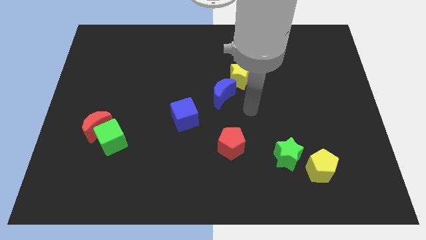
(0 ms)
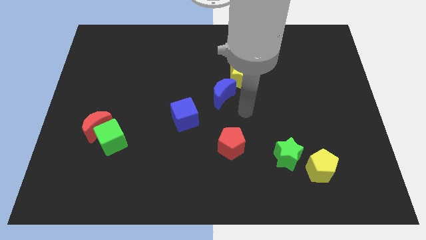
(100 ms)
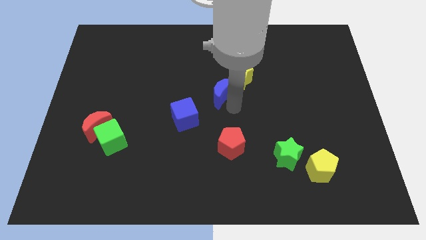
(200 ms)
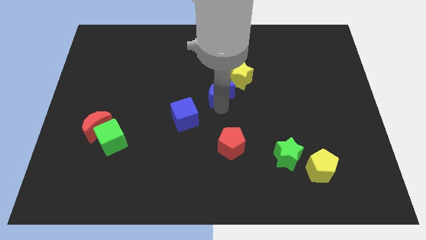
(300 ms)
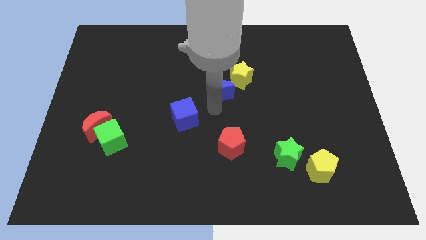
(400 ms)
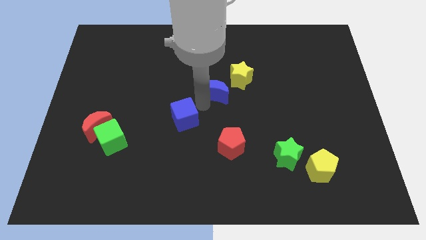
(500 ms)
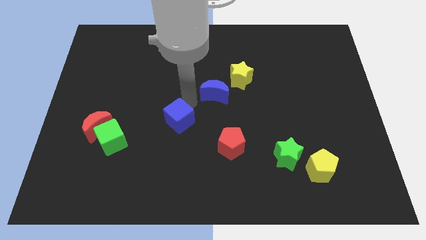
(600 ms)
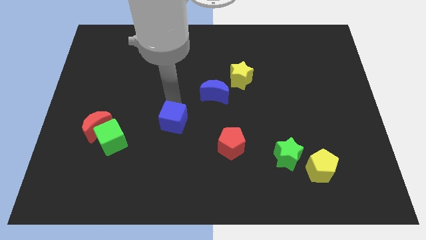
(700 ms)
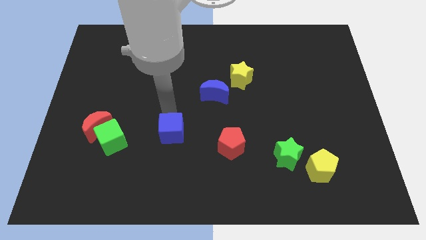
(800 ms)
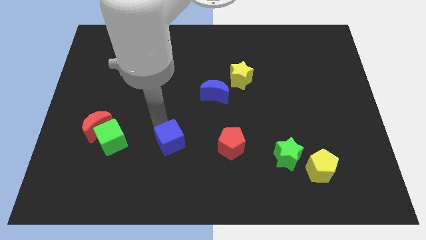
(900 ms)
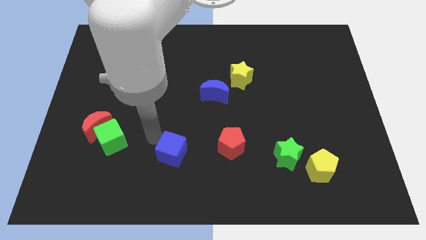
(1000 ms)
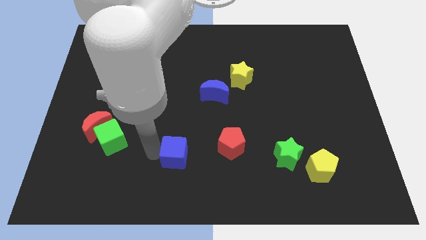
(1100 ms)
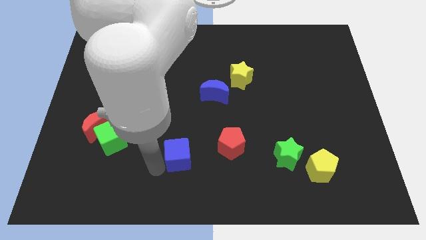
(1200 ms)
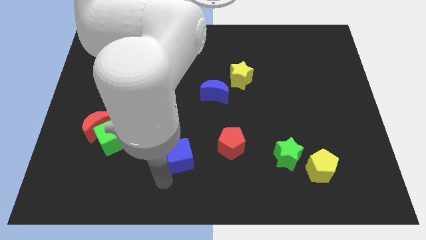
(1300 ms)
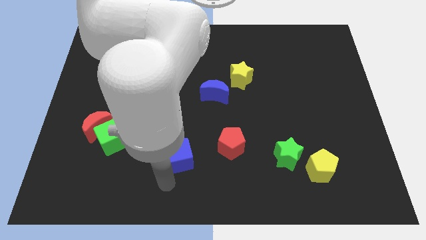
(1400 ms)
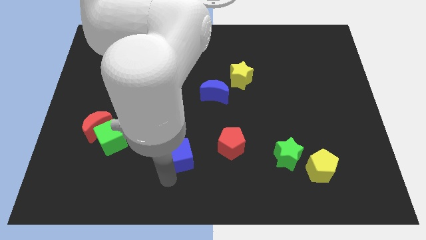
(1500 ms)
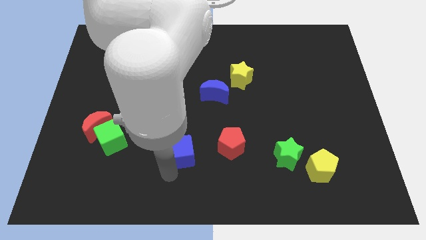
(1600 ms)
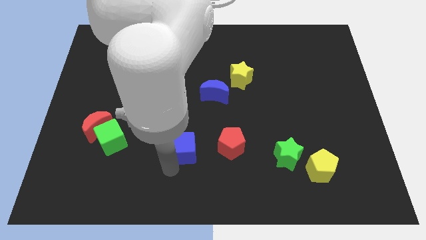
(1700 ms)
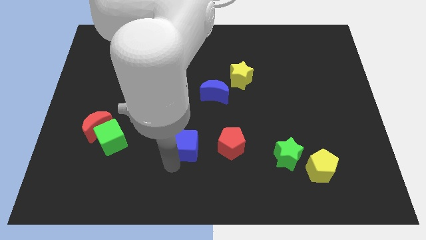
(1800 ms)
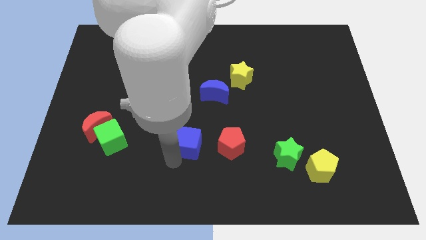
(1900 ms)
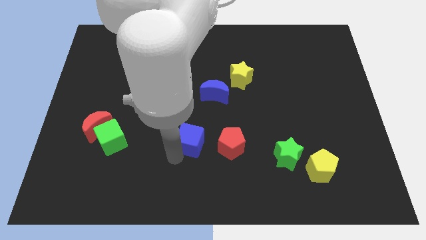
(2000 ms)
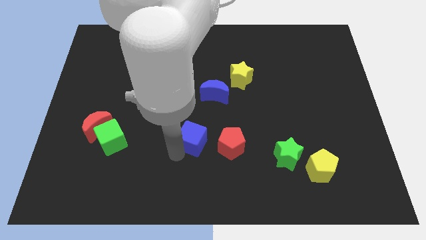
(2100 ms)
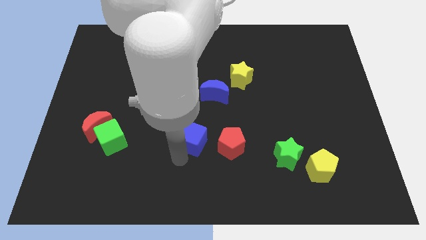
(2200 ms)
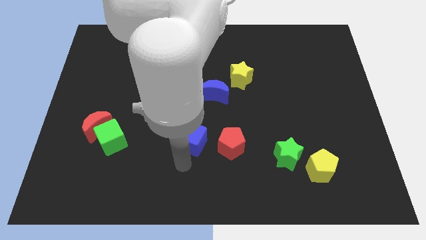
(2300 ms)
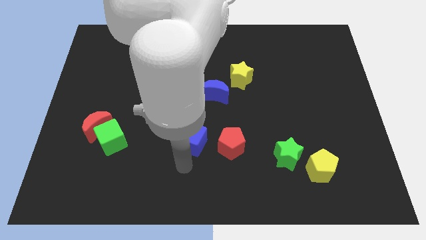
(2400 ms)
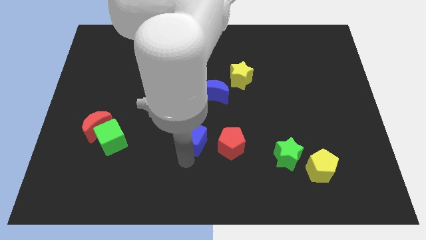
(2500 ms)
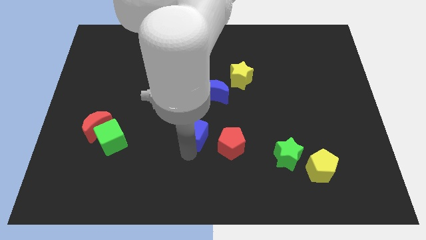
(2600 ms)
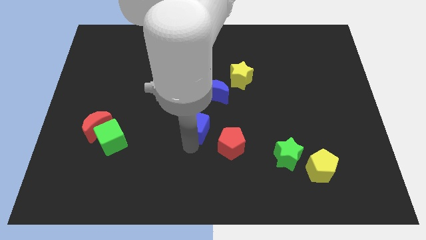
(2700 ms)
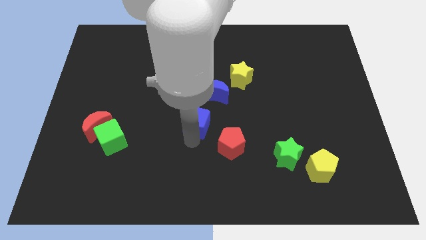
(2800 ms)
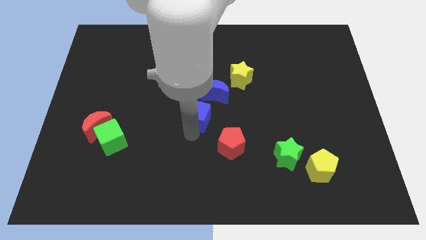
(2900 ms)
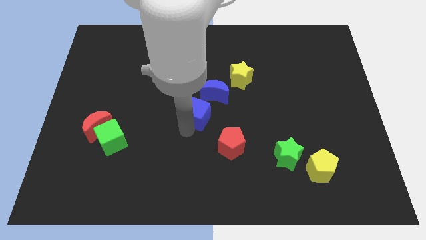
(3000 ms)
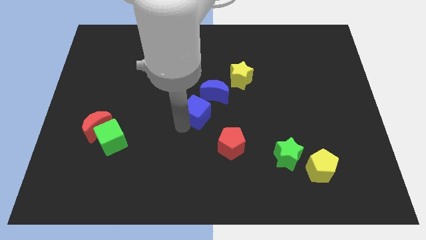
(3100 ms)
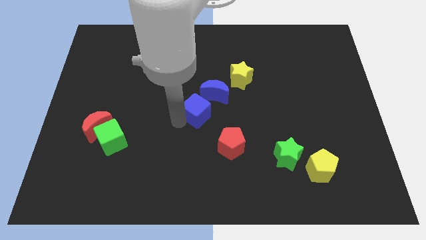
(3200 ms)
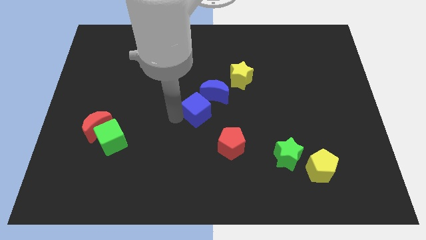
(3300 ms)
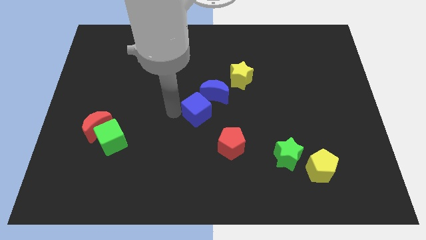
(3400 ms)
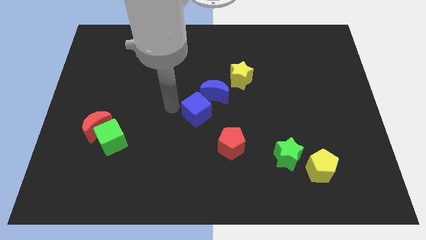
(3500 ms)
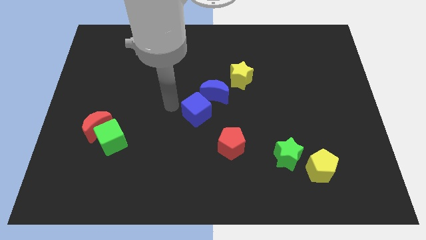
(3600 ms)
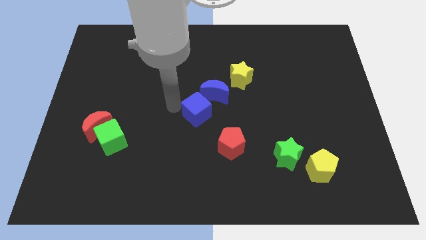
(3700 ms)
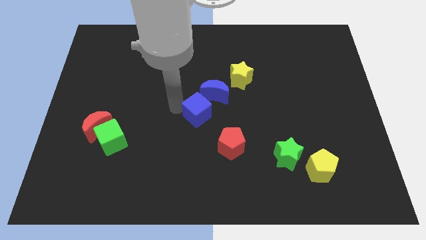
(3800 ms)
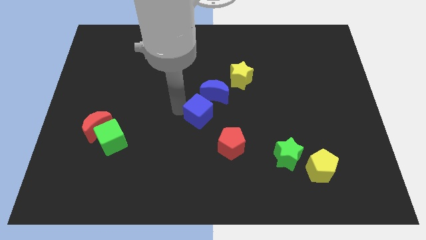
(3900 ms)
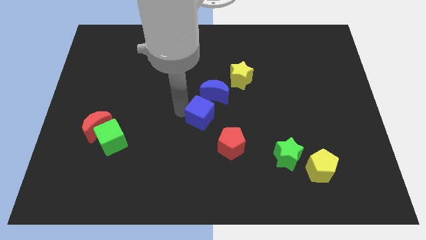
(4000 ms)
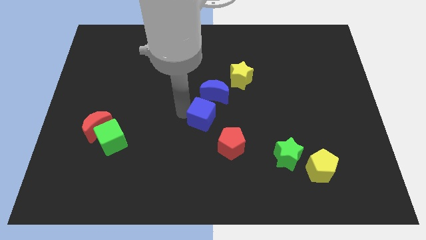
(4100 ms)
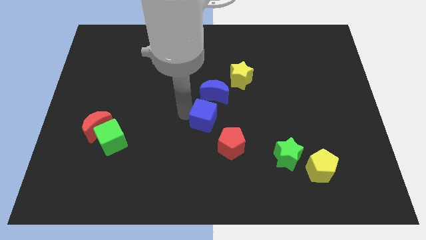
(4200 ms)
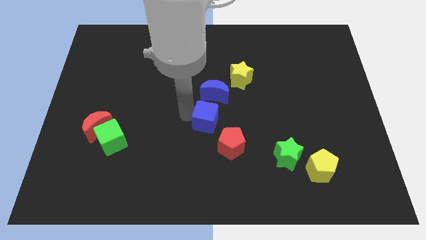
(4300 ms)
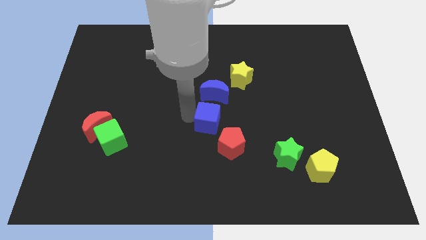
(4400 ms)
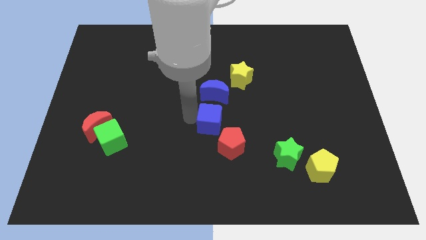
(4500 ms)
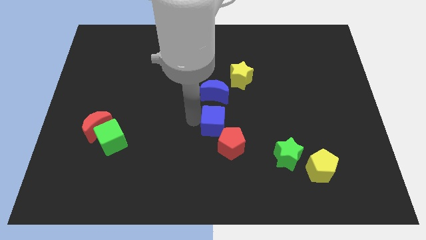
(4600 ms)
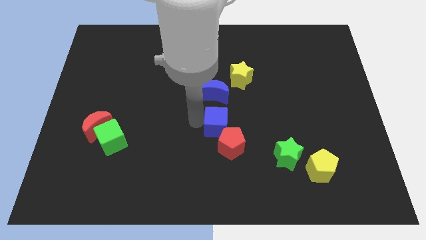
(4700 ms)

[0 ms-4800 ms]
slide the blue cube right slightly

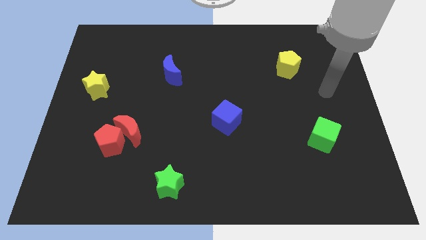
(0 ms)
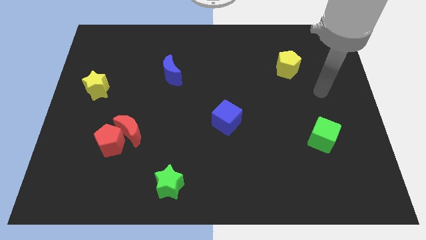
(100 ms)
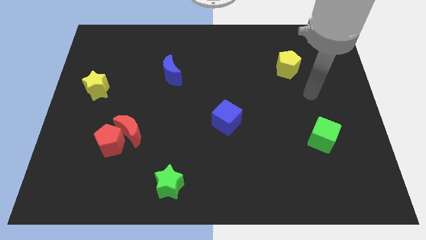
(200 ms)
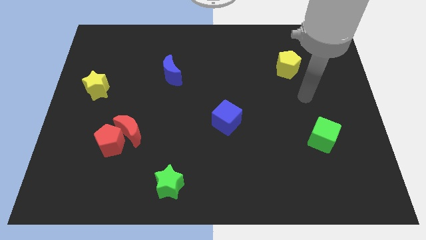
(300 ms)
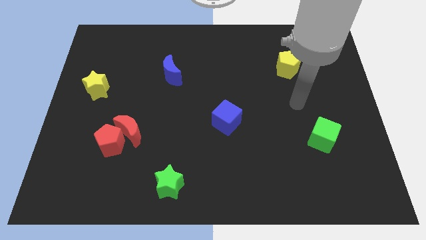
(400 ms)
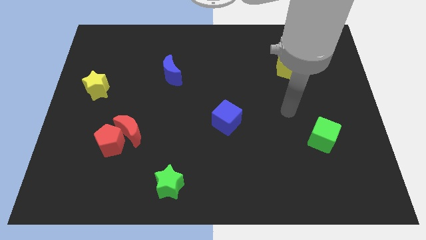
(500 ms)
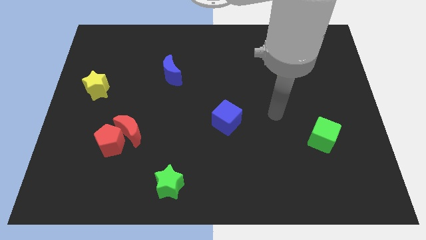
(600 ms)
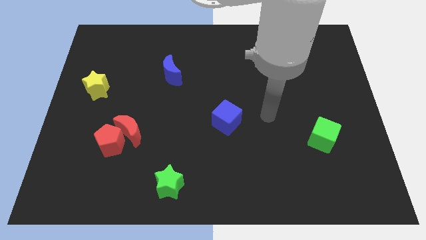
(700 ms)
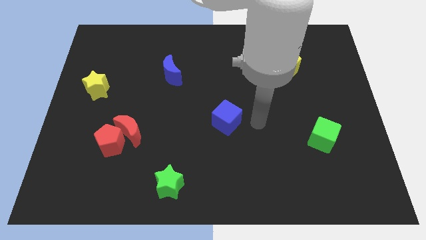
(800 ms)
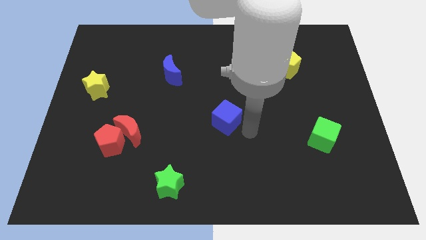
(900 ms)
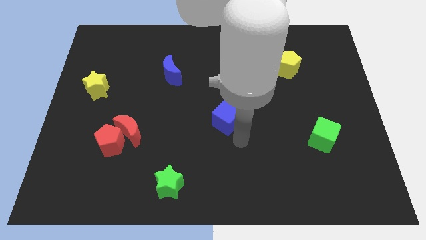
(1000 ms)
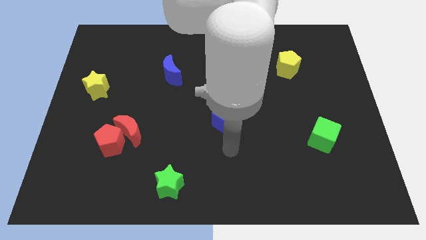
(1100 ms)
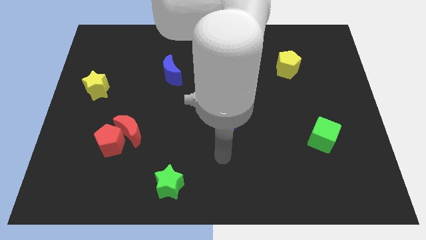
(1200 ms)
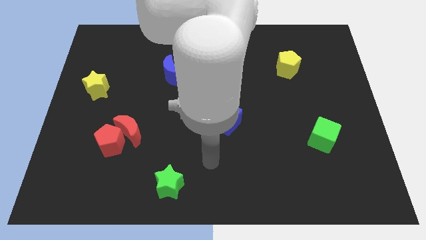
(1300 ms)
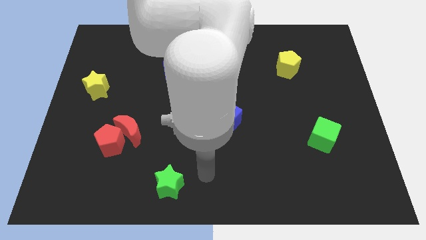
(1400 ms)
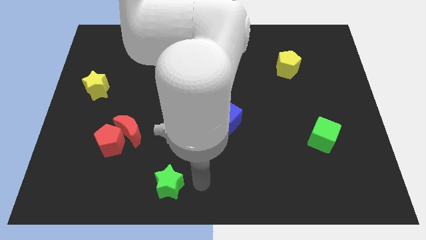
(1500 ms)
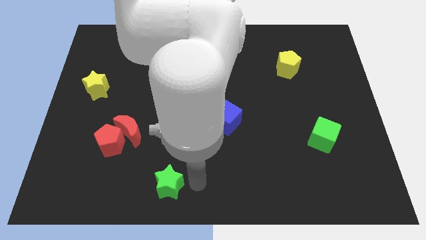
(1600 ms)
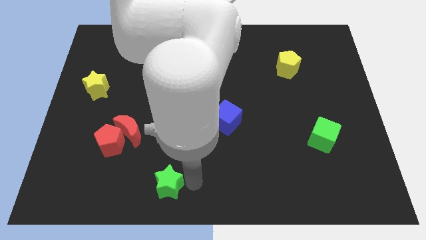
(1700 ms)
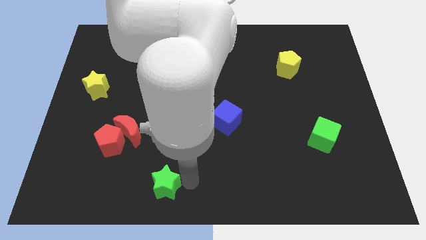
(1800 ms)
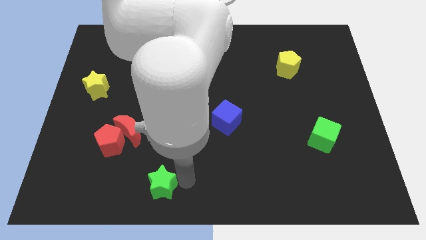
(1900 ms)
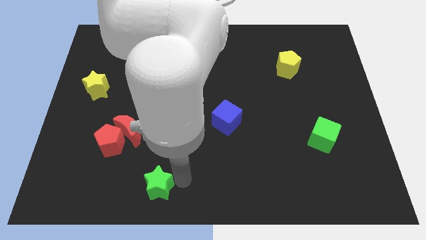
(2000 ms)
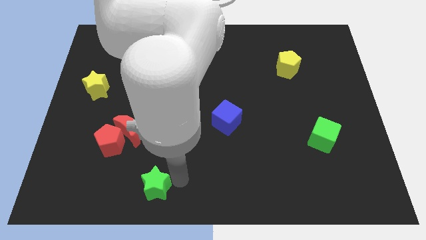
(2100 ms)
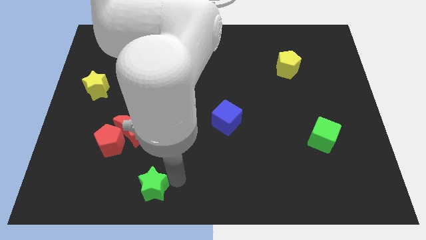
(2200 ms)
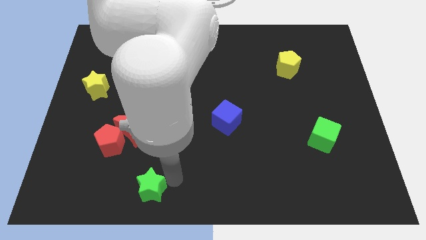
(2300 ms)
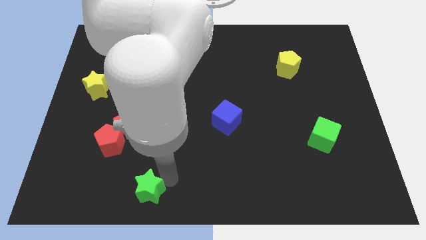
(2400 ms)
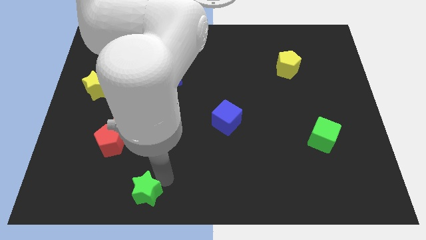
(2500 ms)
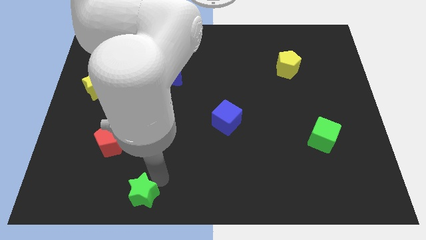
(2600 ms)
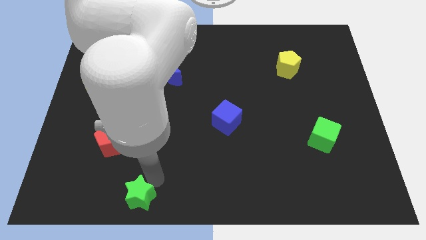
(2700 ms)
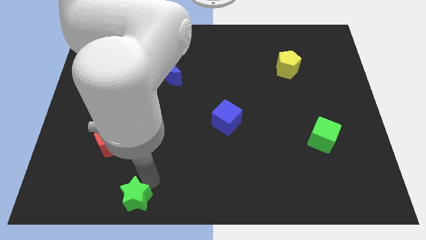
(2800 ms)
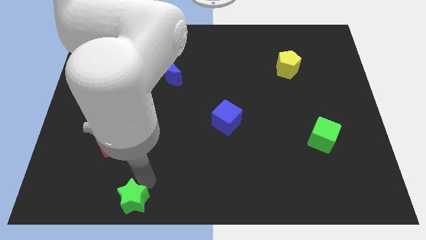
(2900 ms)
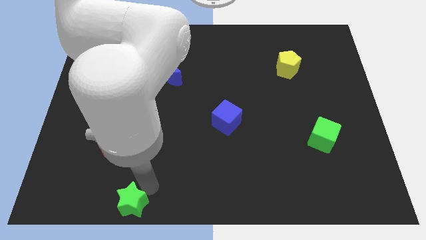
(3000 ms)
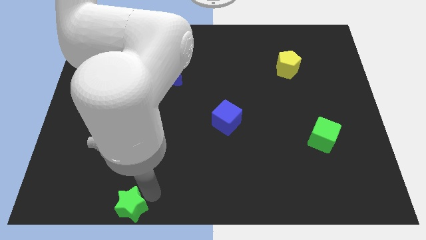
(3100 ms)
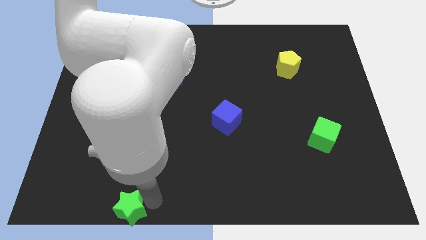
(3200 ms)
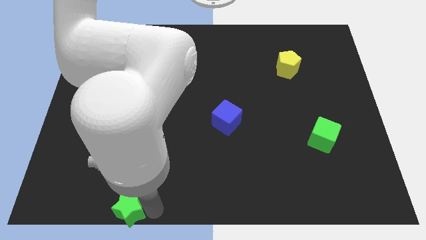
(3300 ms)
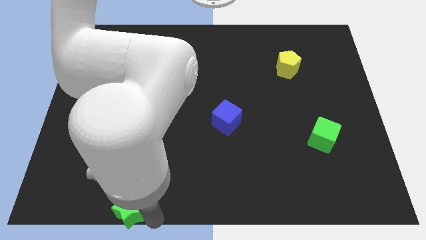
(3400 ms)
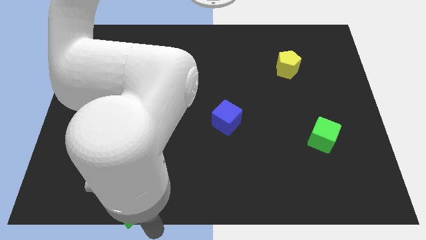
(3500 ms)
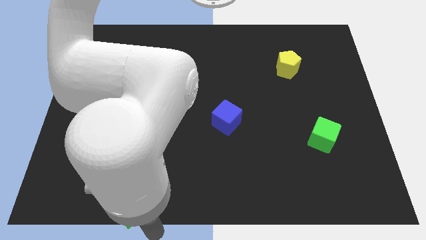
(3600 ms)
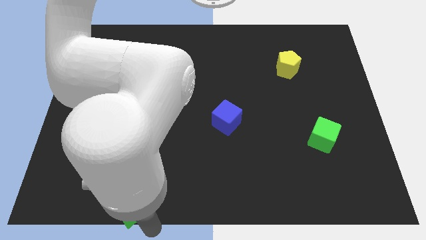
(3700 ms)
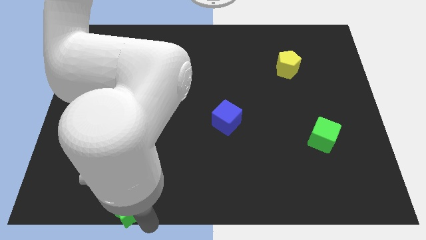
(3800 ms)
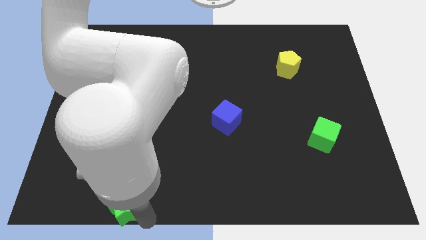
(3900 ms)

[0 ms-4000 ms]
push the green star left somewhat
